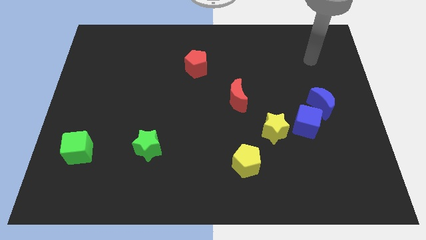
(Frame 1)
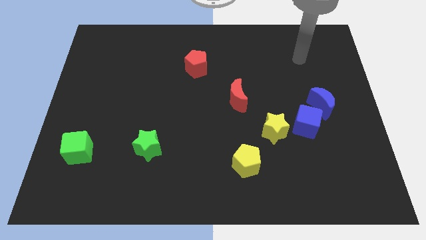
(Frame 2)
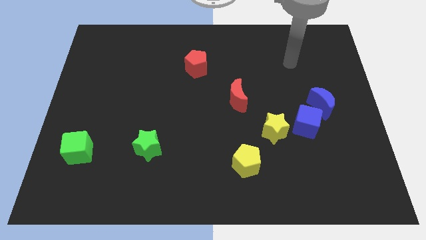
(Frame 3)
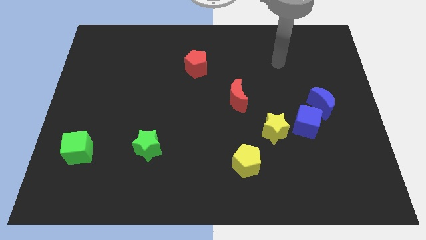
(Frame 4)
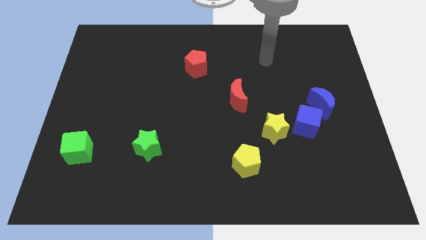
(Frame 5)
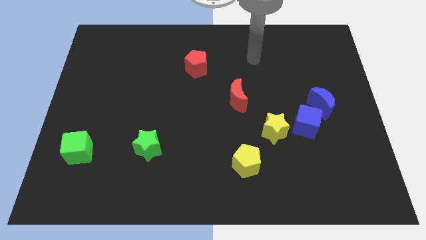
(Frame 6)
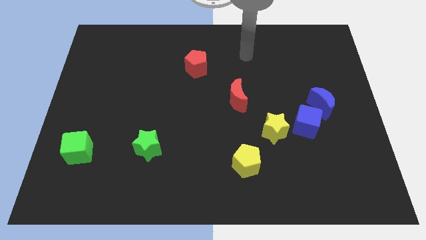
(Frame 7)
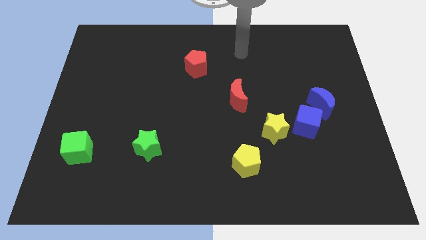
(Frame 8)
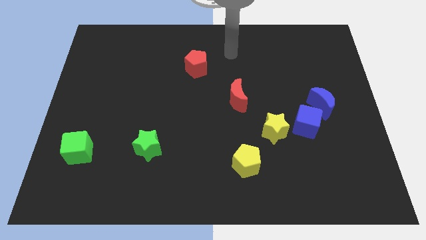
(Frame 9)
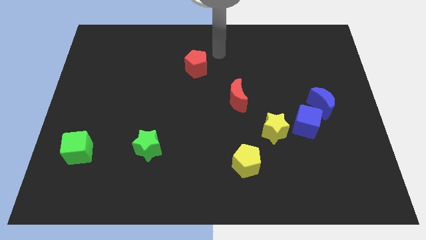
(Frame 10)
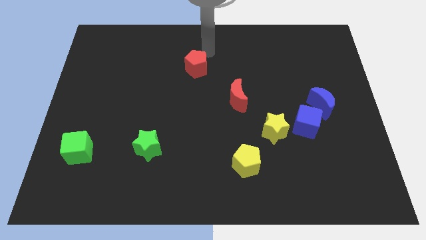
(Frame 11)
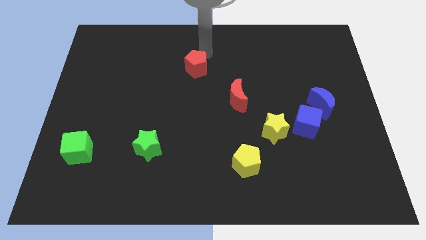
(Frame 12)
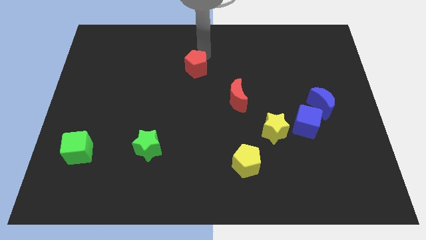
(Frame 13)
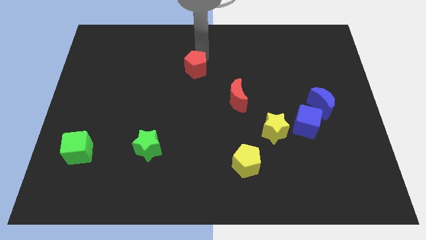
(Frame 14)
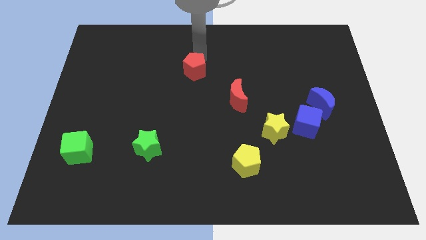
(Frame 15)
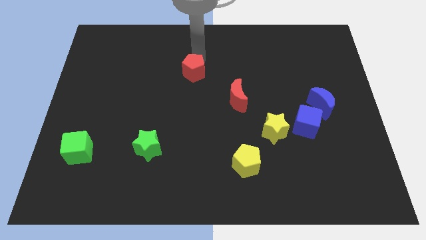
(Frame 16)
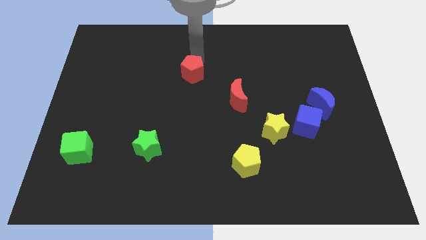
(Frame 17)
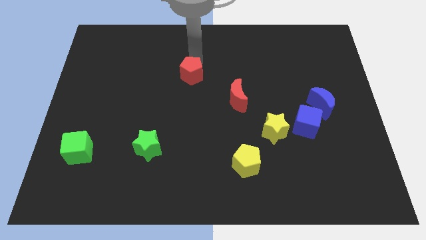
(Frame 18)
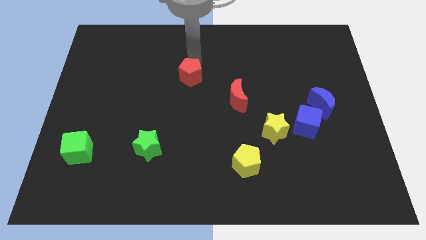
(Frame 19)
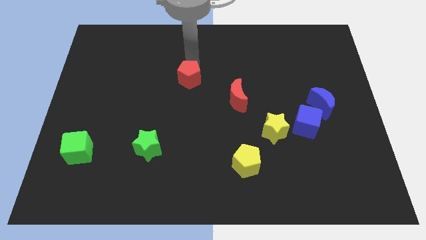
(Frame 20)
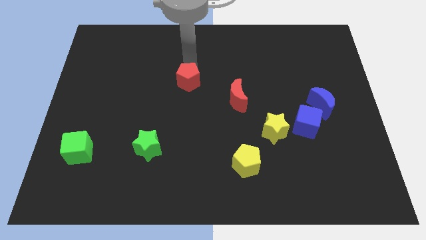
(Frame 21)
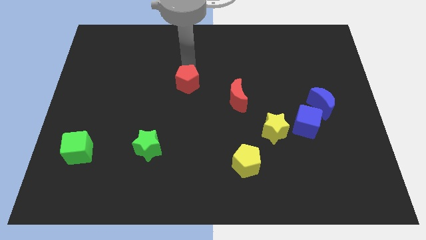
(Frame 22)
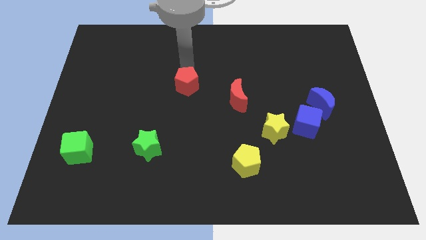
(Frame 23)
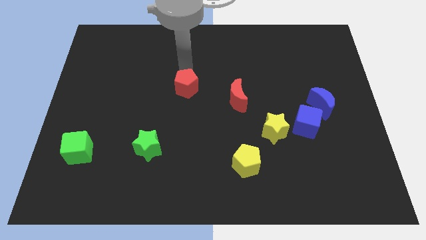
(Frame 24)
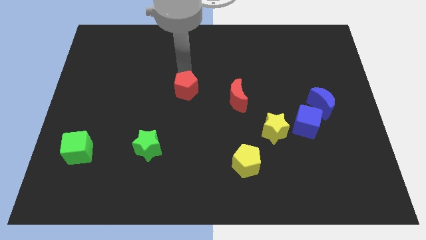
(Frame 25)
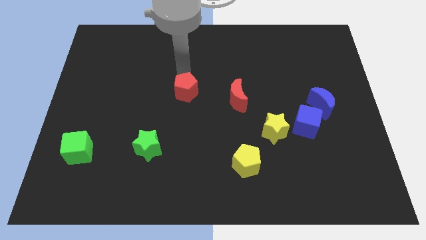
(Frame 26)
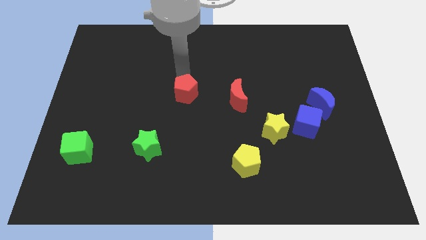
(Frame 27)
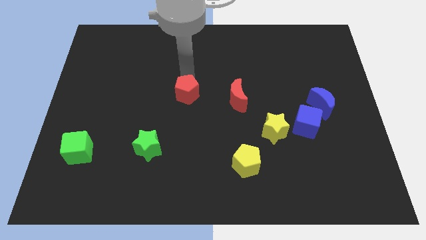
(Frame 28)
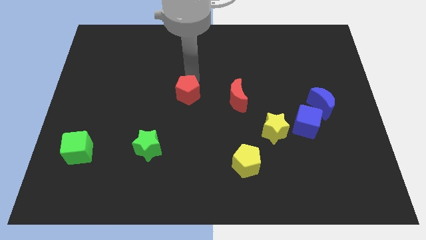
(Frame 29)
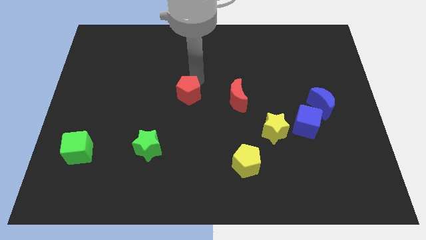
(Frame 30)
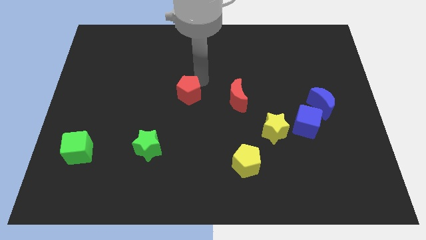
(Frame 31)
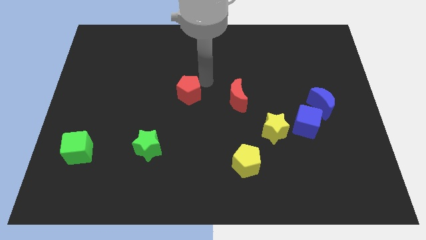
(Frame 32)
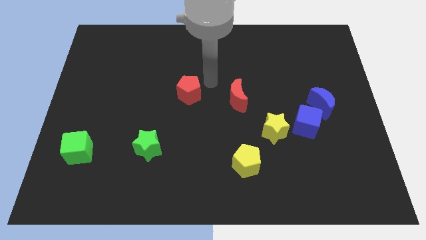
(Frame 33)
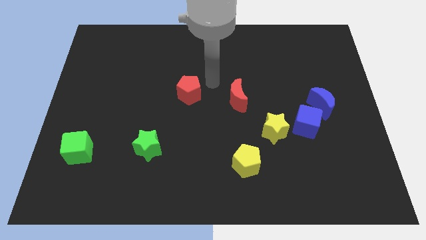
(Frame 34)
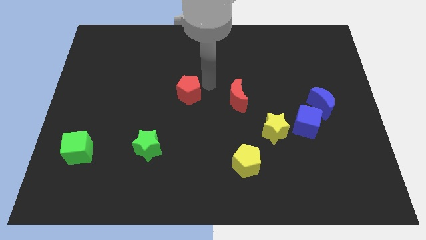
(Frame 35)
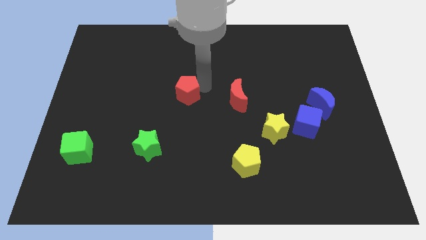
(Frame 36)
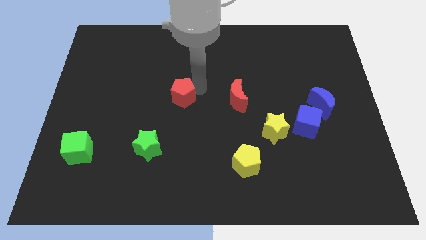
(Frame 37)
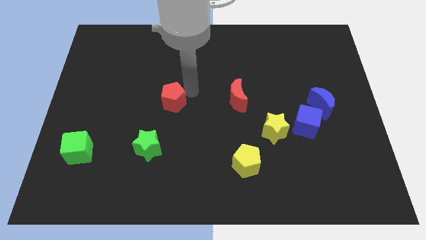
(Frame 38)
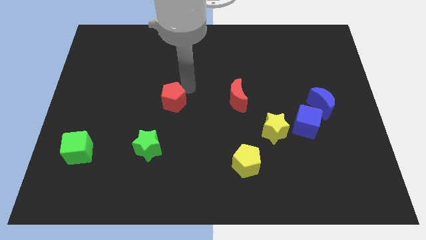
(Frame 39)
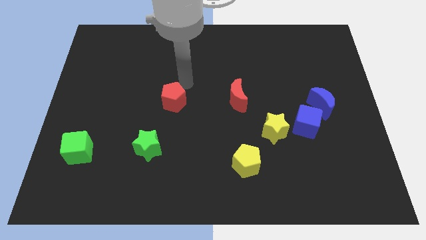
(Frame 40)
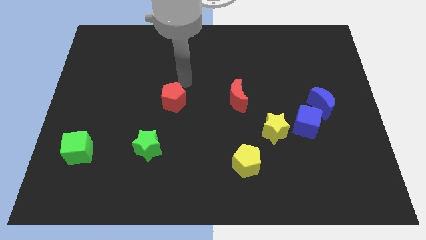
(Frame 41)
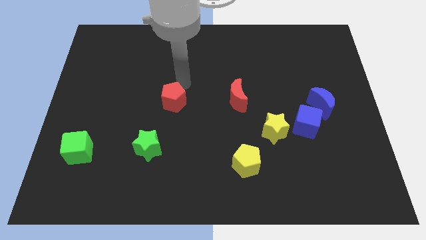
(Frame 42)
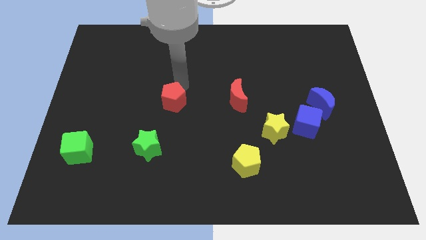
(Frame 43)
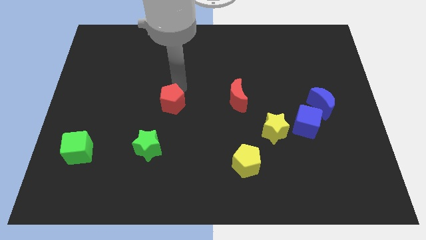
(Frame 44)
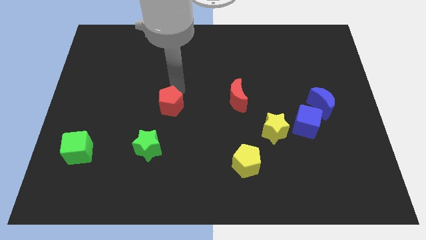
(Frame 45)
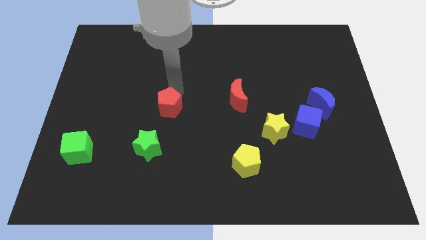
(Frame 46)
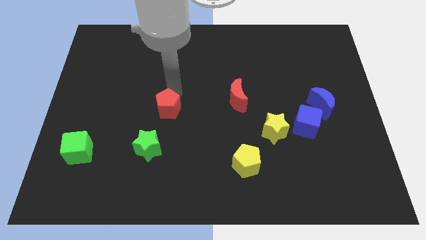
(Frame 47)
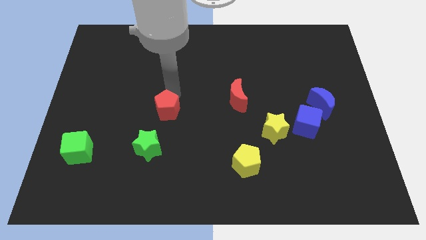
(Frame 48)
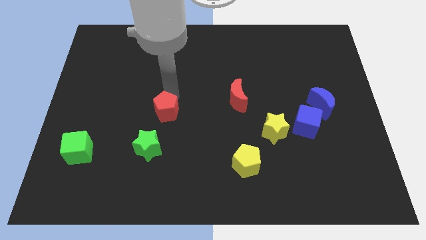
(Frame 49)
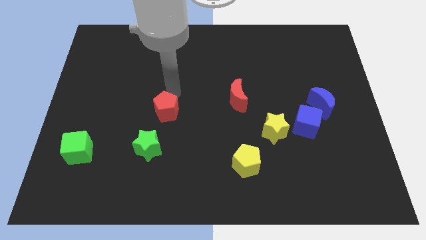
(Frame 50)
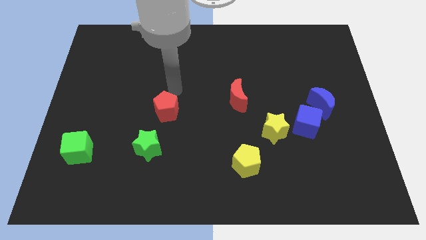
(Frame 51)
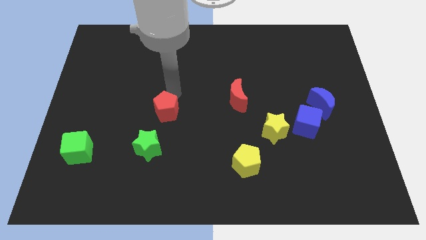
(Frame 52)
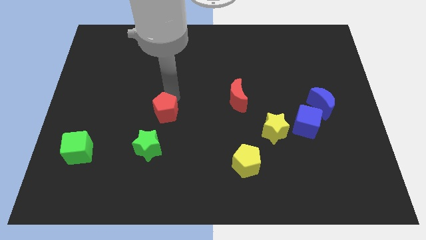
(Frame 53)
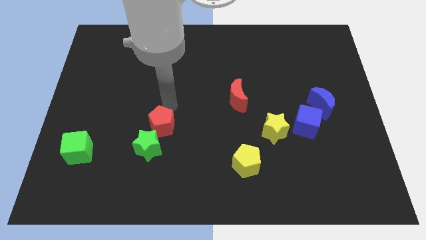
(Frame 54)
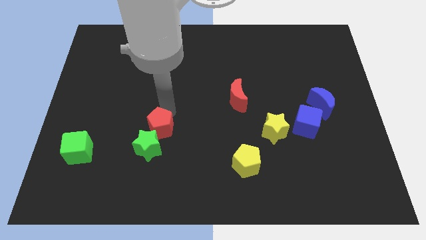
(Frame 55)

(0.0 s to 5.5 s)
slide the red pentagon to the green star

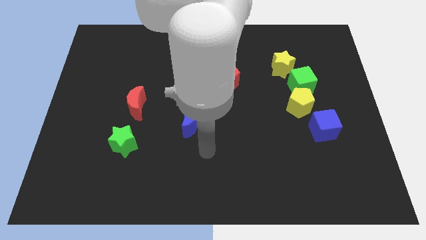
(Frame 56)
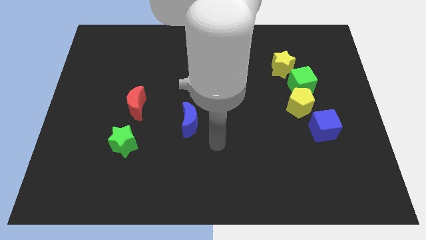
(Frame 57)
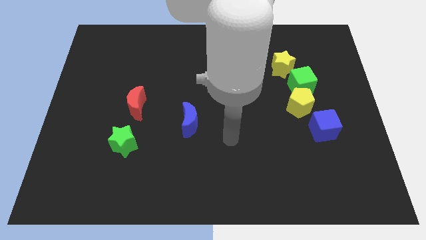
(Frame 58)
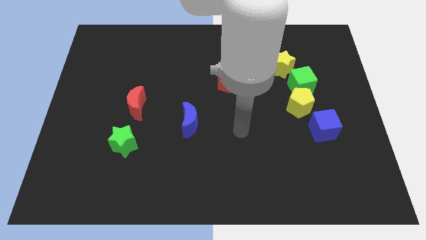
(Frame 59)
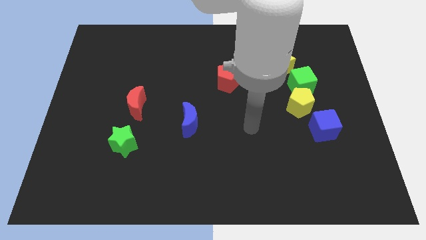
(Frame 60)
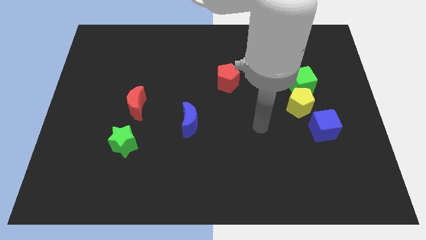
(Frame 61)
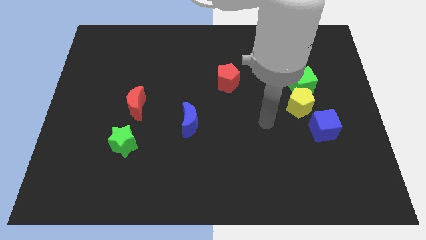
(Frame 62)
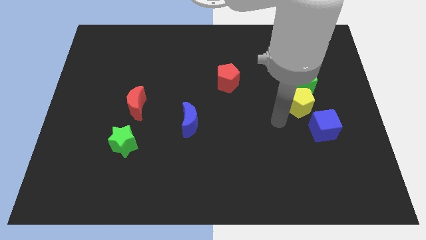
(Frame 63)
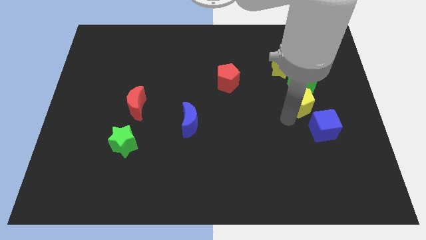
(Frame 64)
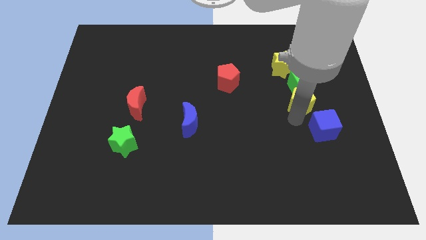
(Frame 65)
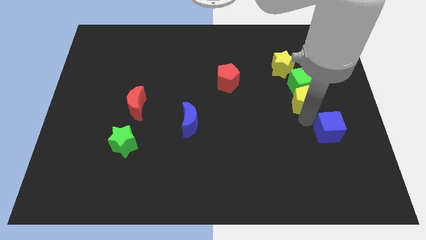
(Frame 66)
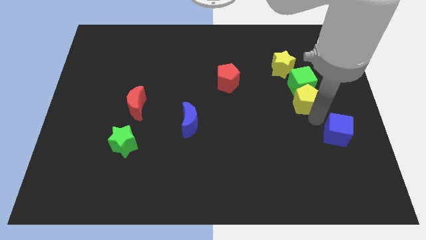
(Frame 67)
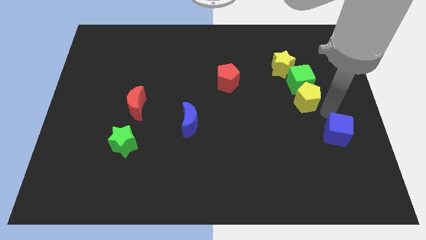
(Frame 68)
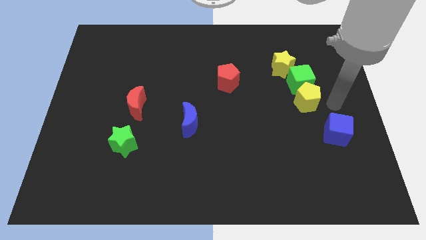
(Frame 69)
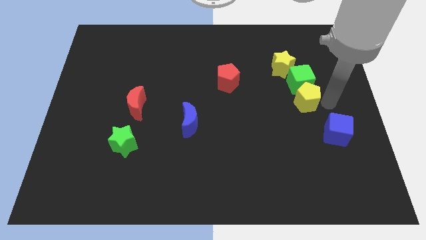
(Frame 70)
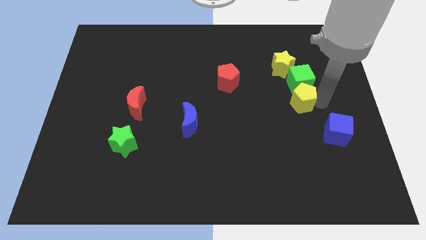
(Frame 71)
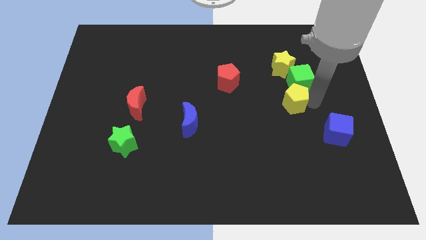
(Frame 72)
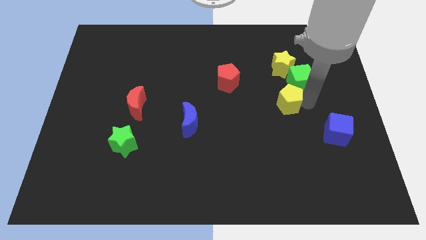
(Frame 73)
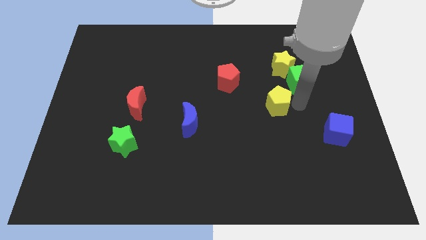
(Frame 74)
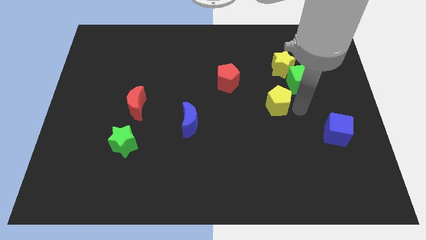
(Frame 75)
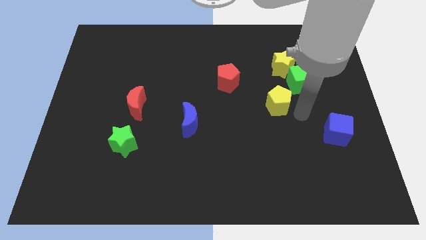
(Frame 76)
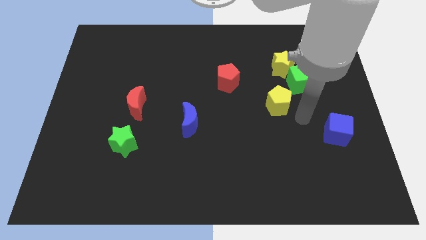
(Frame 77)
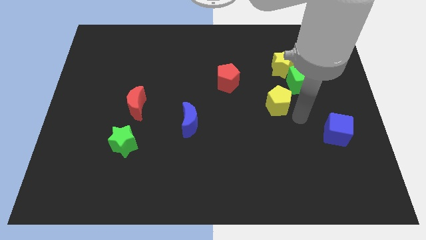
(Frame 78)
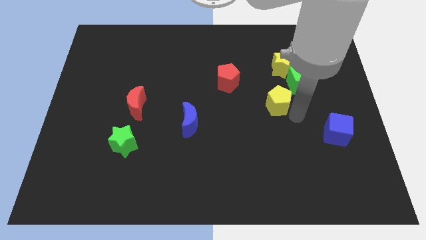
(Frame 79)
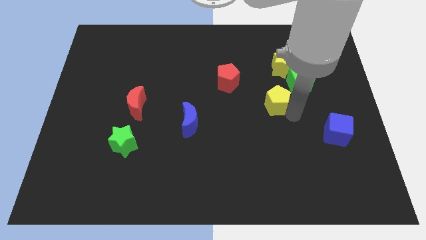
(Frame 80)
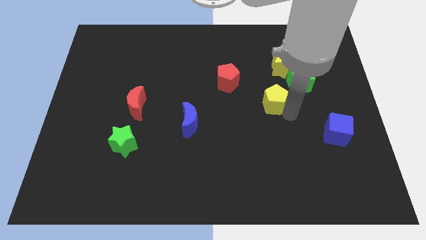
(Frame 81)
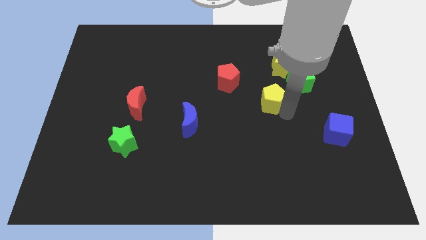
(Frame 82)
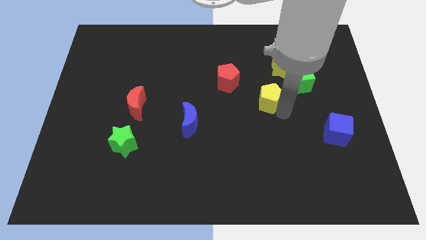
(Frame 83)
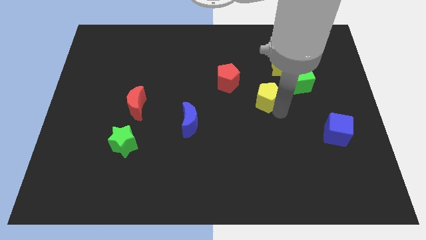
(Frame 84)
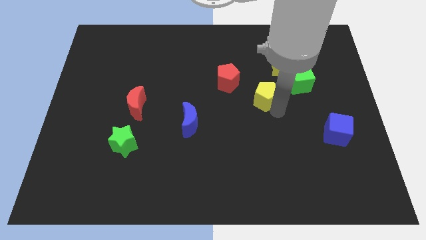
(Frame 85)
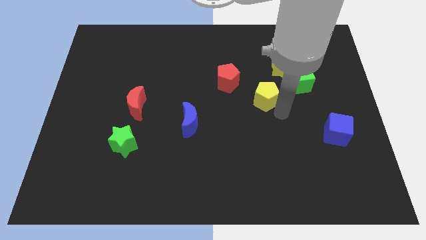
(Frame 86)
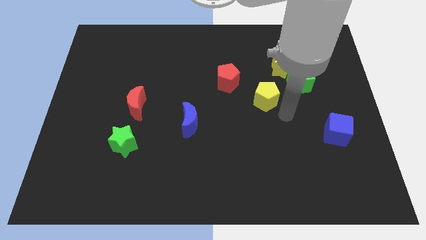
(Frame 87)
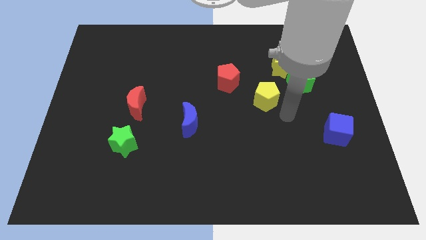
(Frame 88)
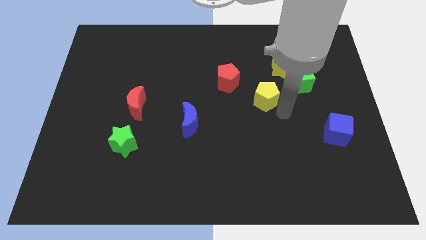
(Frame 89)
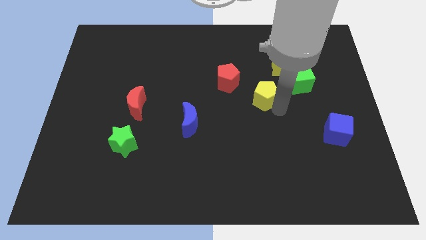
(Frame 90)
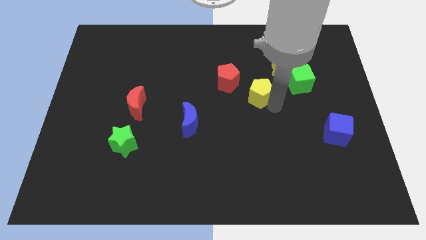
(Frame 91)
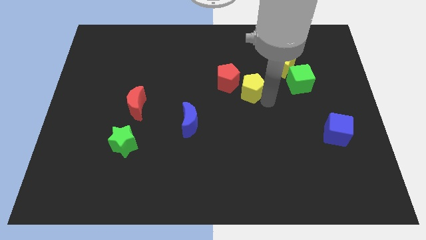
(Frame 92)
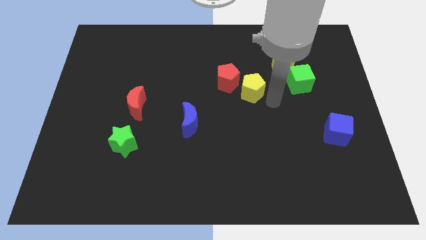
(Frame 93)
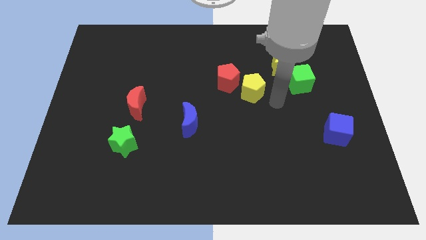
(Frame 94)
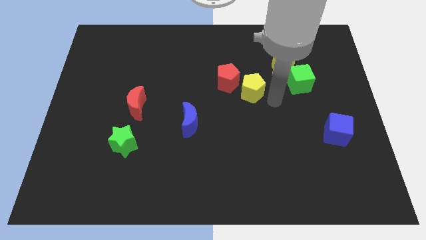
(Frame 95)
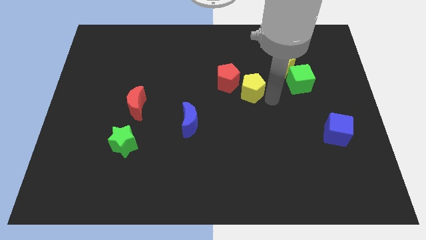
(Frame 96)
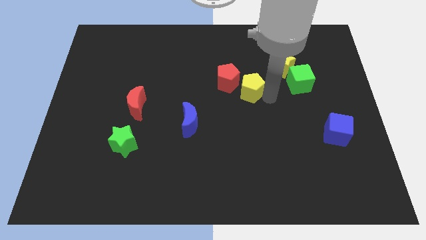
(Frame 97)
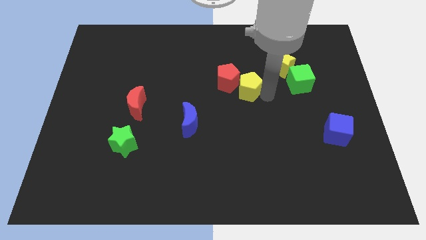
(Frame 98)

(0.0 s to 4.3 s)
put the yellow pentagon to the red pentagon
